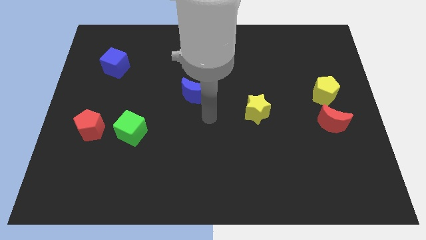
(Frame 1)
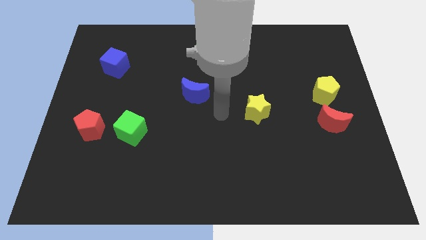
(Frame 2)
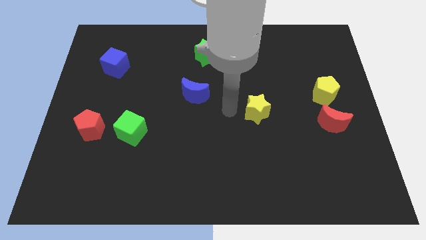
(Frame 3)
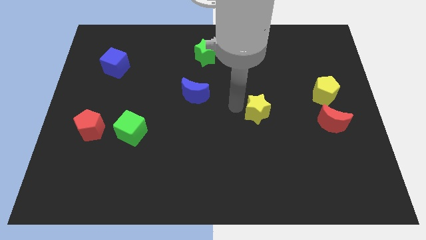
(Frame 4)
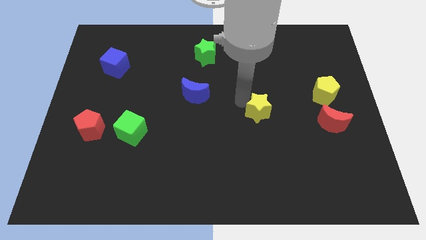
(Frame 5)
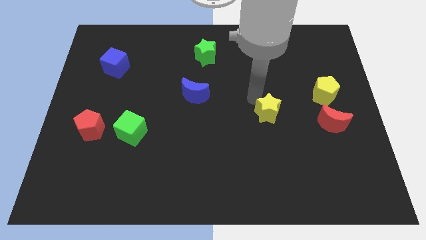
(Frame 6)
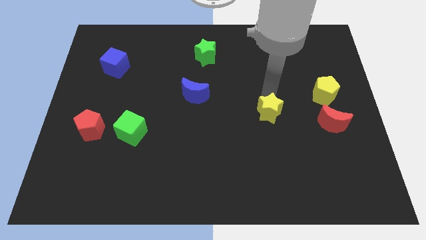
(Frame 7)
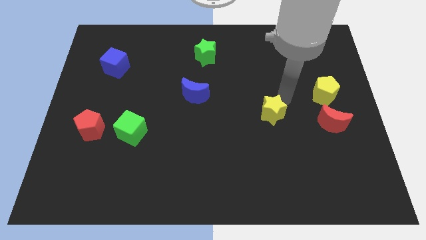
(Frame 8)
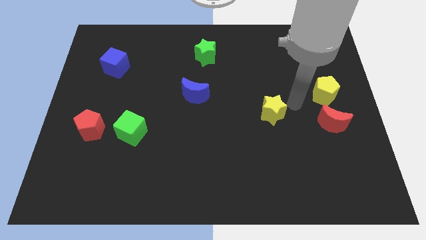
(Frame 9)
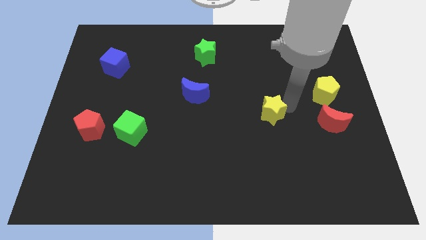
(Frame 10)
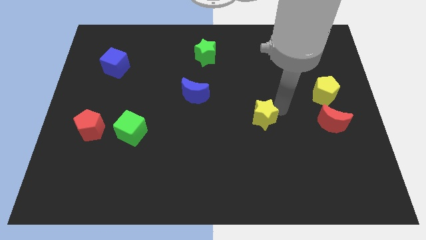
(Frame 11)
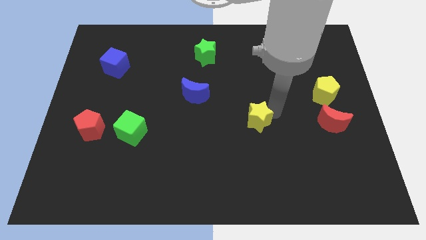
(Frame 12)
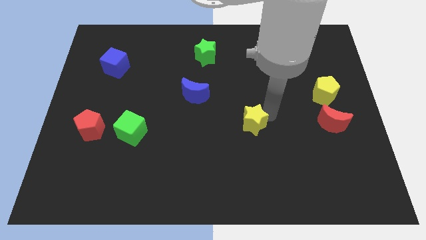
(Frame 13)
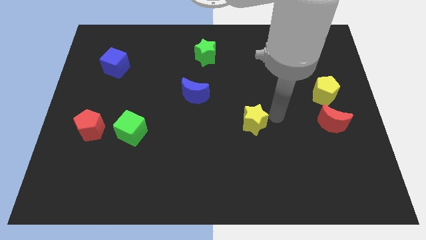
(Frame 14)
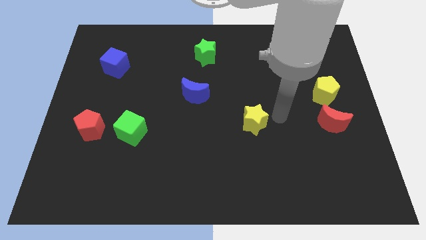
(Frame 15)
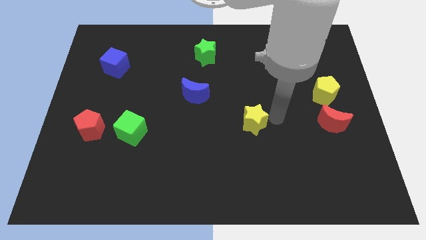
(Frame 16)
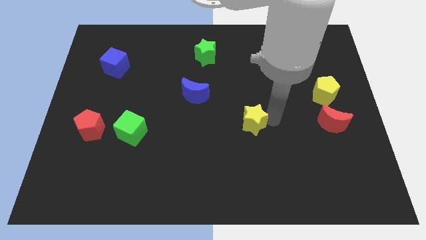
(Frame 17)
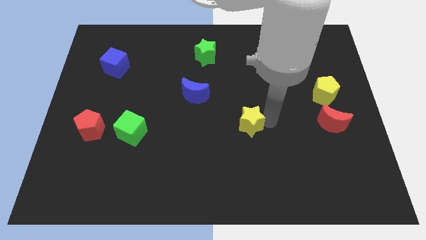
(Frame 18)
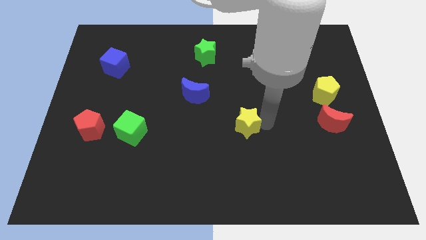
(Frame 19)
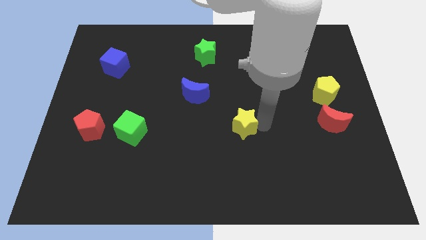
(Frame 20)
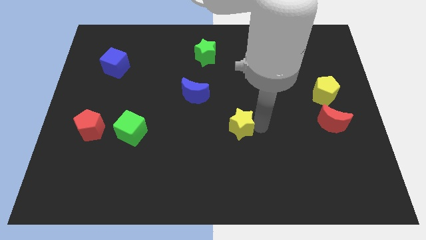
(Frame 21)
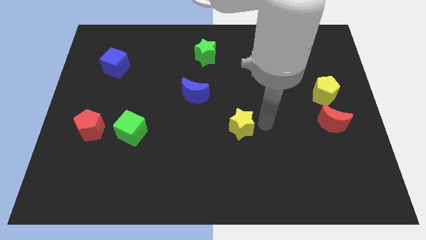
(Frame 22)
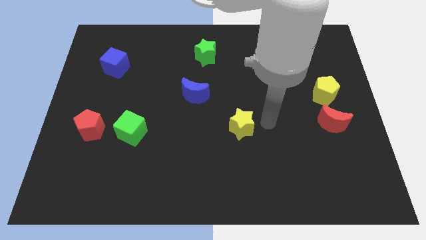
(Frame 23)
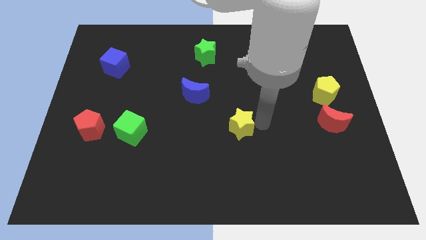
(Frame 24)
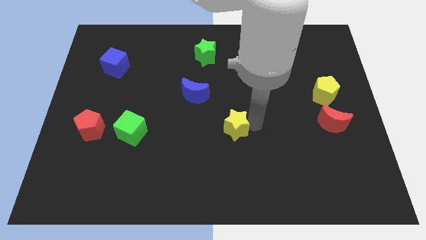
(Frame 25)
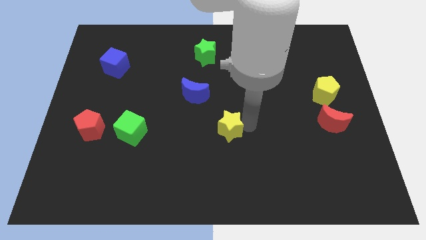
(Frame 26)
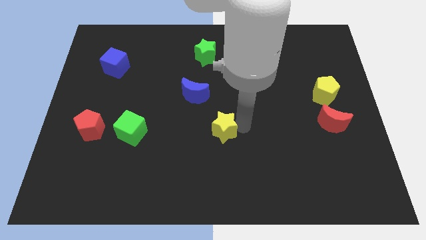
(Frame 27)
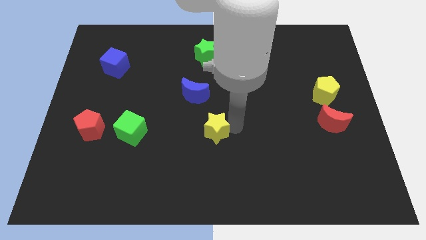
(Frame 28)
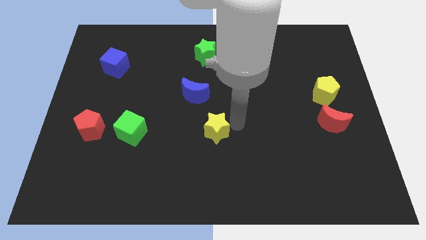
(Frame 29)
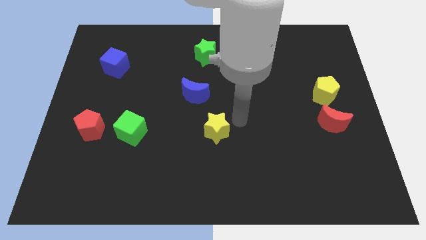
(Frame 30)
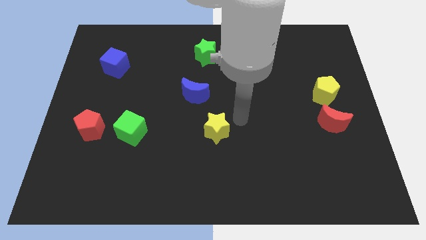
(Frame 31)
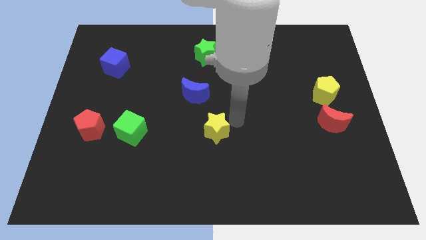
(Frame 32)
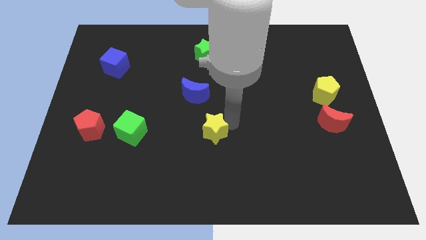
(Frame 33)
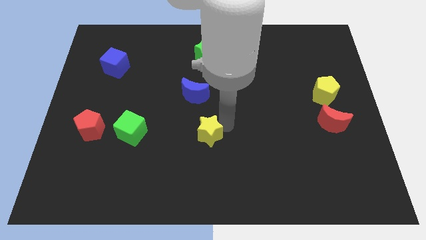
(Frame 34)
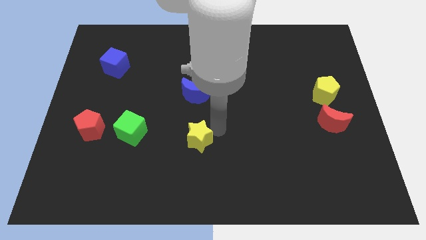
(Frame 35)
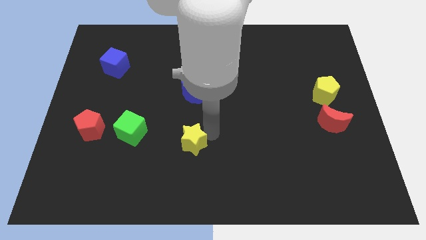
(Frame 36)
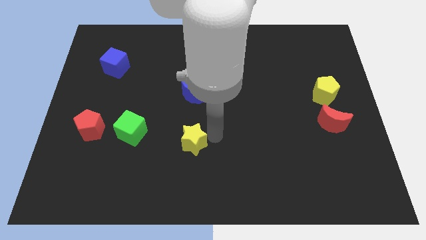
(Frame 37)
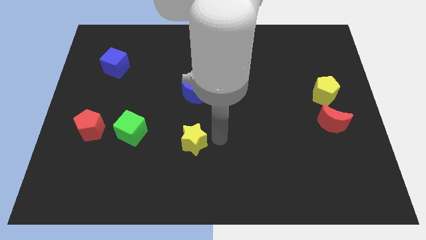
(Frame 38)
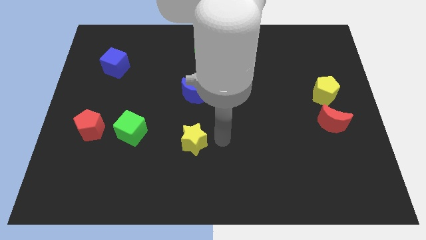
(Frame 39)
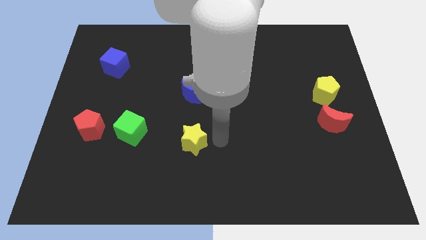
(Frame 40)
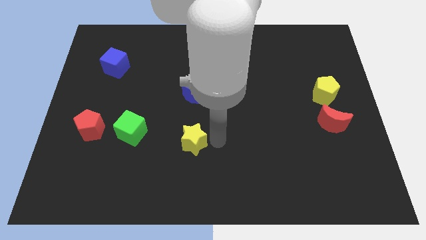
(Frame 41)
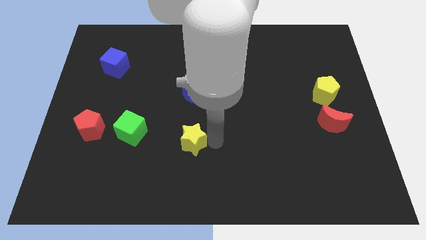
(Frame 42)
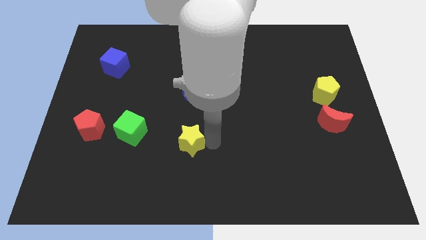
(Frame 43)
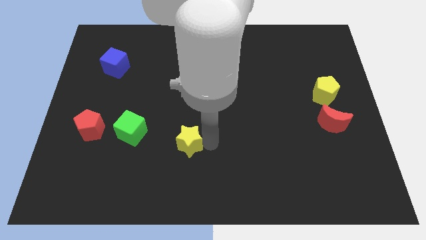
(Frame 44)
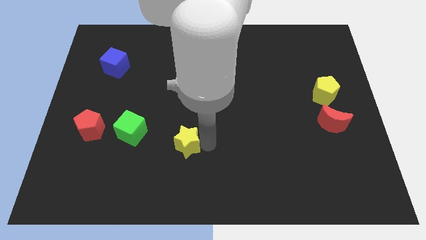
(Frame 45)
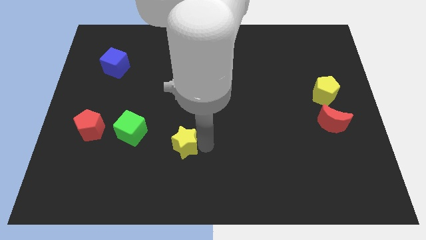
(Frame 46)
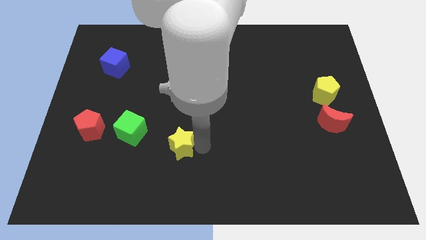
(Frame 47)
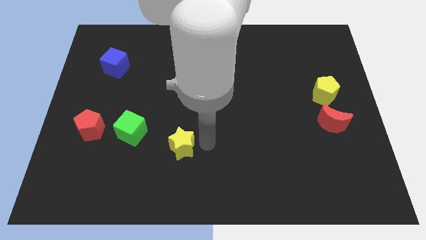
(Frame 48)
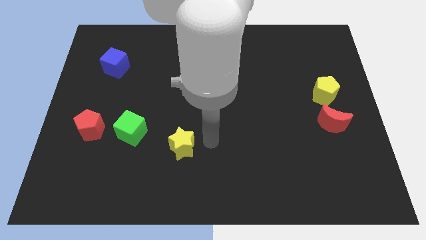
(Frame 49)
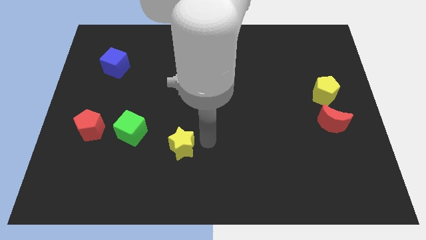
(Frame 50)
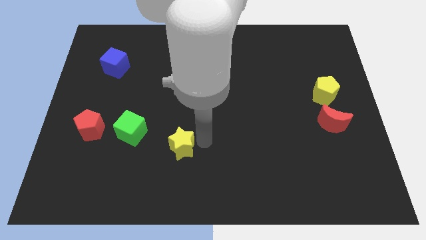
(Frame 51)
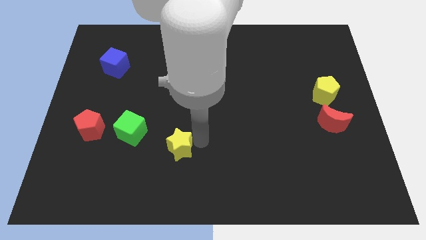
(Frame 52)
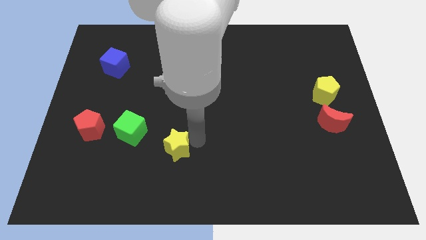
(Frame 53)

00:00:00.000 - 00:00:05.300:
push the yellow star diagonally down and to the right of the green cube

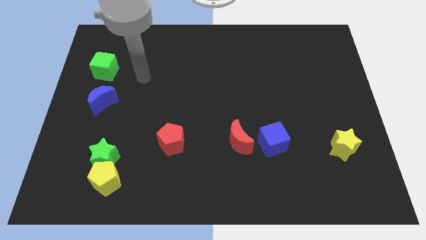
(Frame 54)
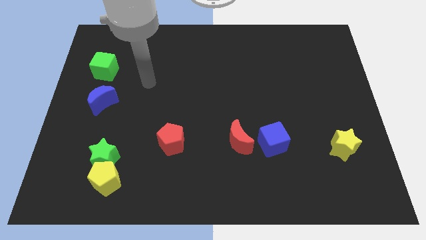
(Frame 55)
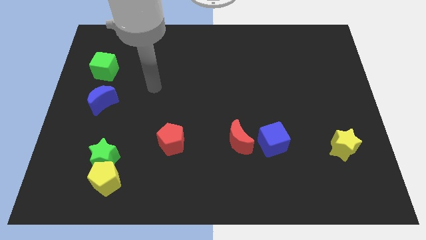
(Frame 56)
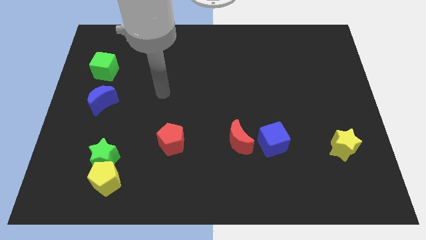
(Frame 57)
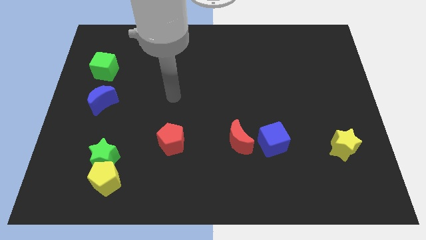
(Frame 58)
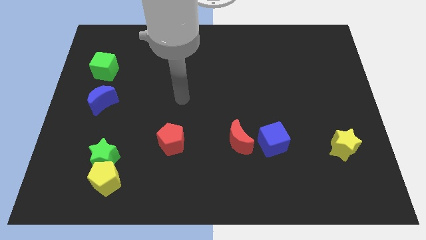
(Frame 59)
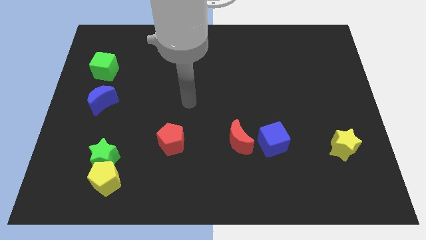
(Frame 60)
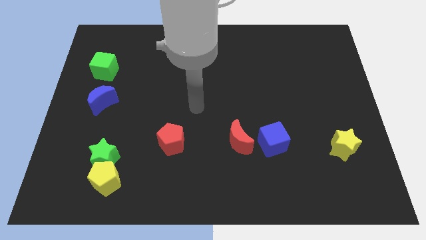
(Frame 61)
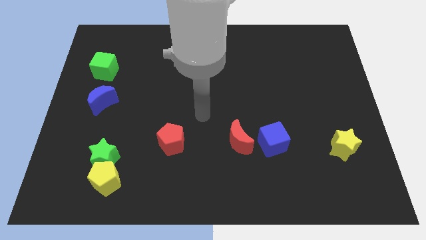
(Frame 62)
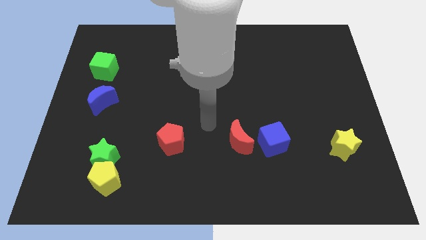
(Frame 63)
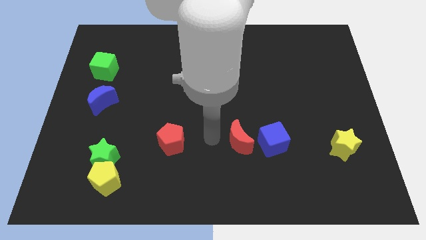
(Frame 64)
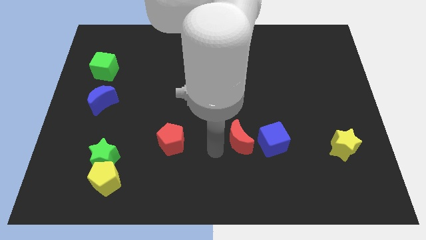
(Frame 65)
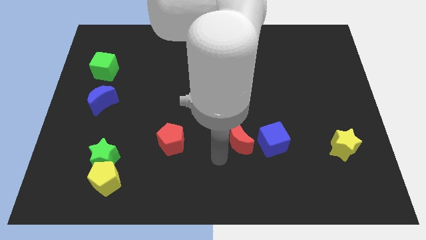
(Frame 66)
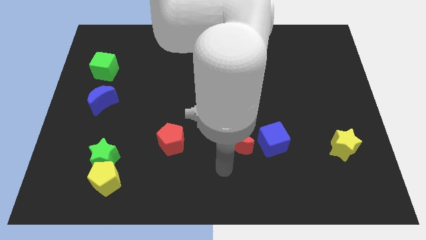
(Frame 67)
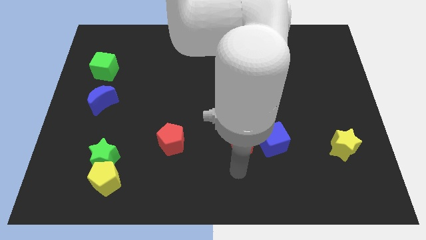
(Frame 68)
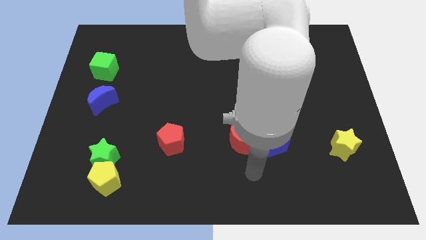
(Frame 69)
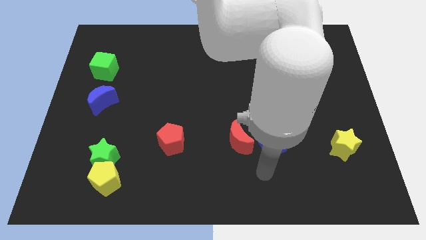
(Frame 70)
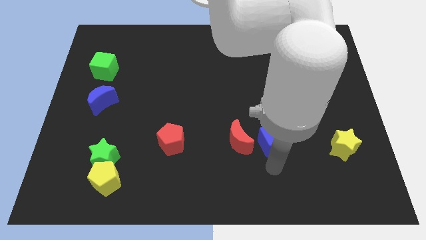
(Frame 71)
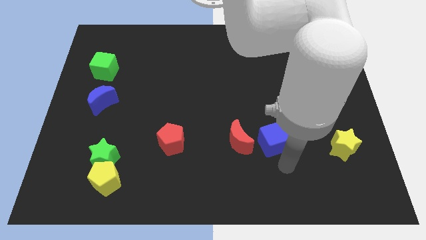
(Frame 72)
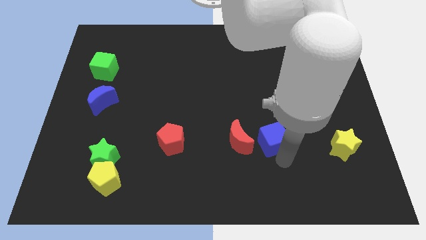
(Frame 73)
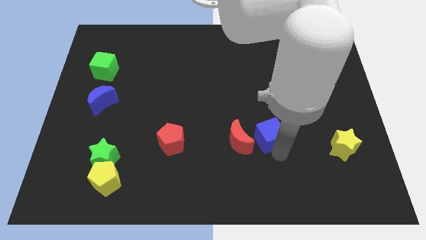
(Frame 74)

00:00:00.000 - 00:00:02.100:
slide the blue cube diagonally up and to the right of the red moon
